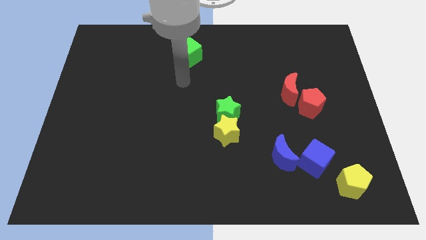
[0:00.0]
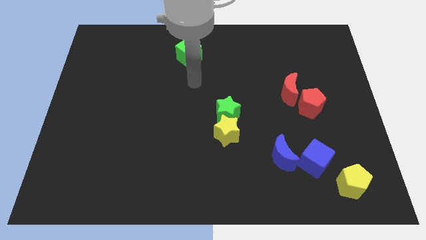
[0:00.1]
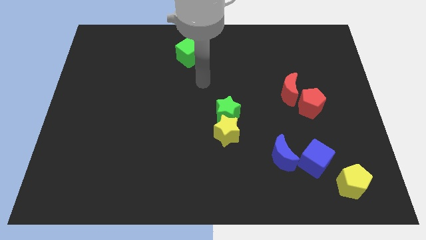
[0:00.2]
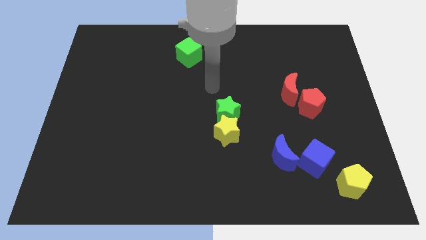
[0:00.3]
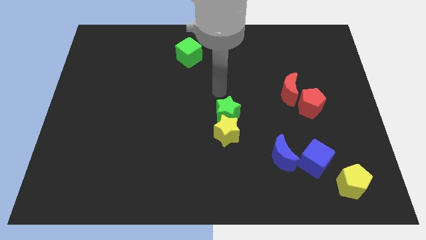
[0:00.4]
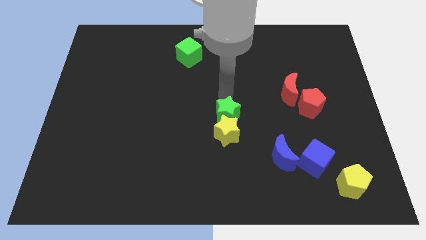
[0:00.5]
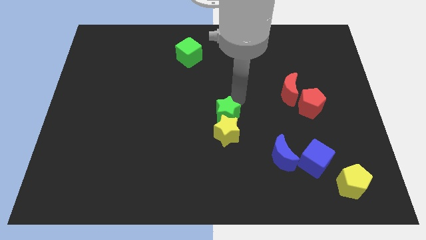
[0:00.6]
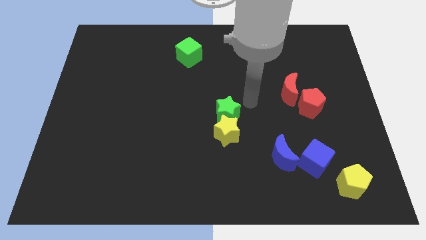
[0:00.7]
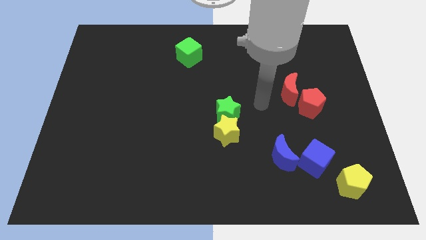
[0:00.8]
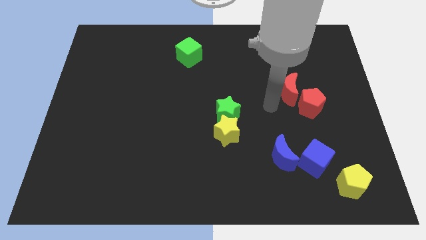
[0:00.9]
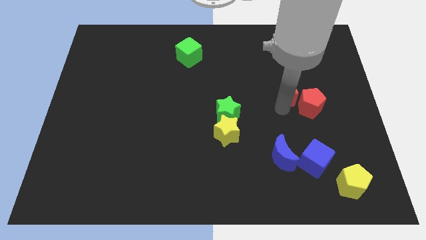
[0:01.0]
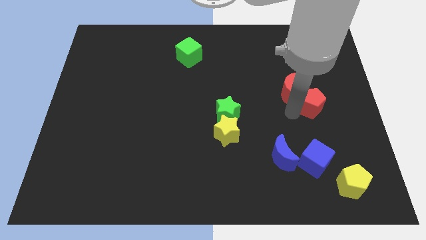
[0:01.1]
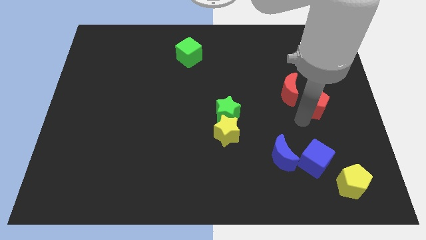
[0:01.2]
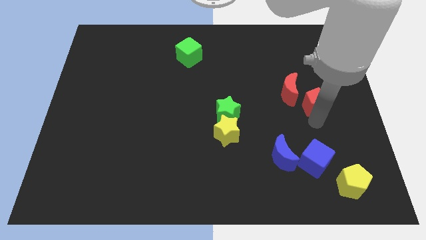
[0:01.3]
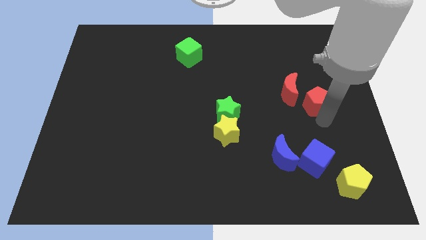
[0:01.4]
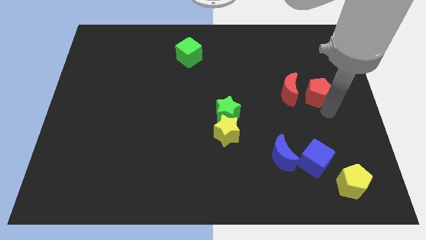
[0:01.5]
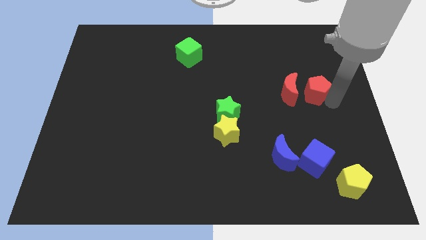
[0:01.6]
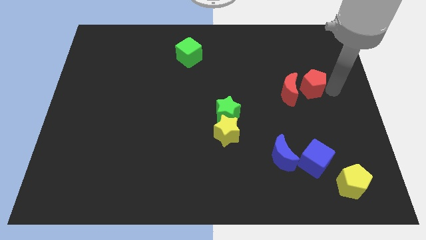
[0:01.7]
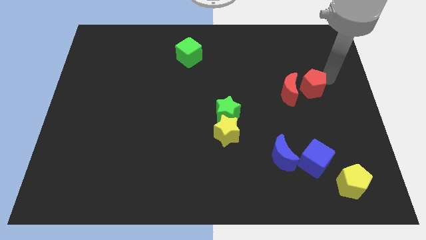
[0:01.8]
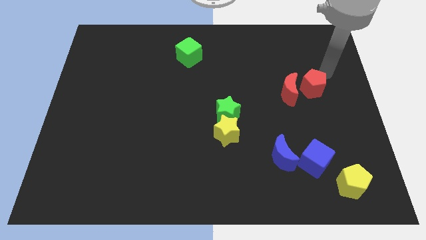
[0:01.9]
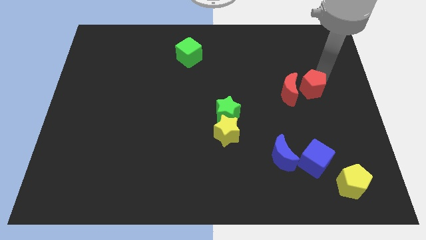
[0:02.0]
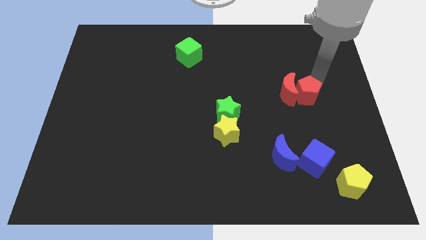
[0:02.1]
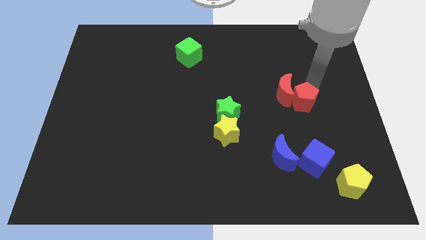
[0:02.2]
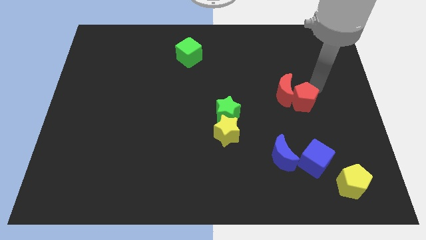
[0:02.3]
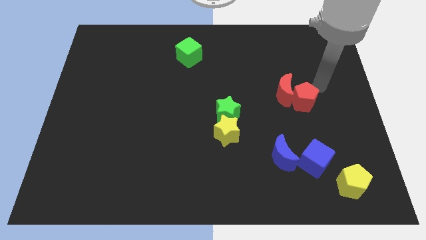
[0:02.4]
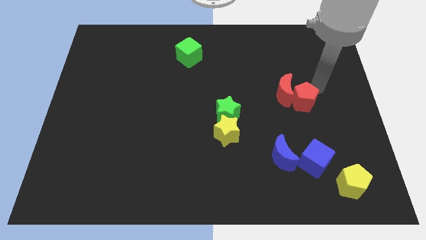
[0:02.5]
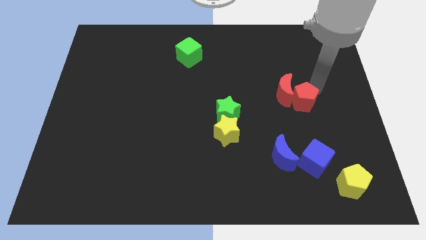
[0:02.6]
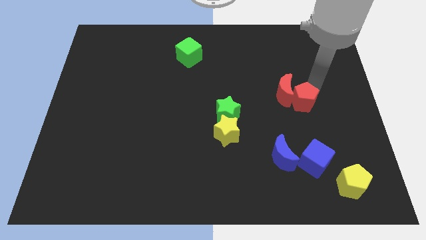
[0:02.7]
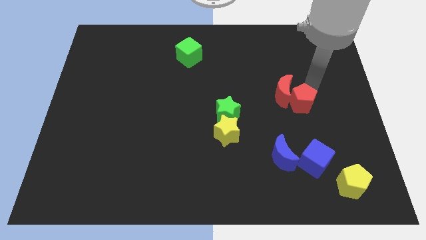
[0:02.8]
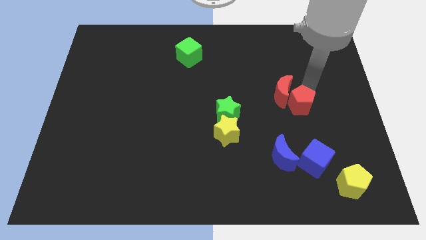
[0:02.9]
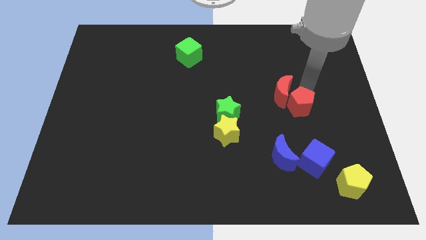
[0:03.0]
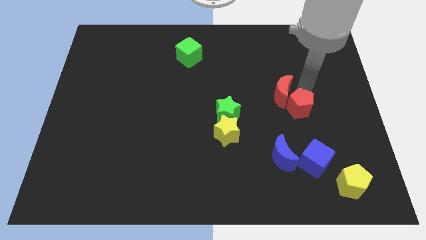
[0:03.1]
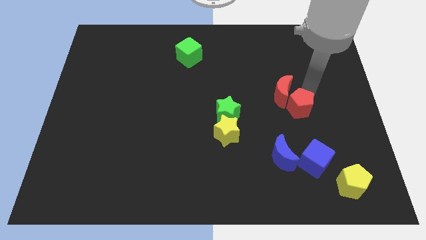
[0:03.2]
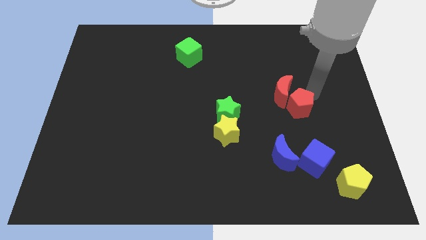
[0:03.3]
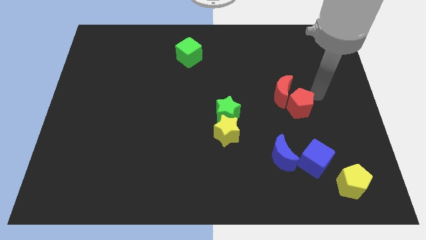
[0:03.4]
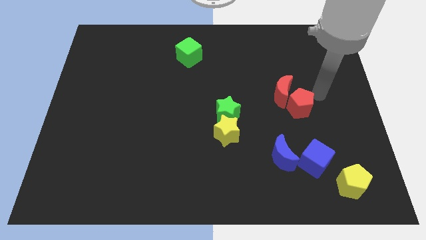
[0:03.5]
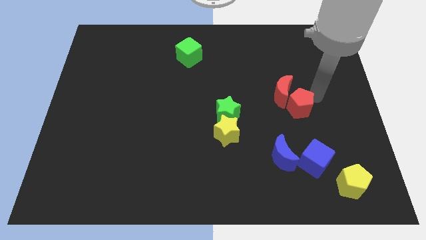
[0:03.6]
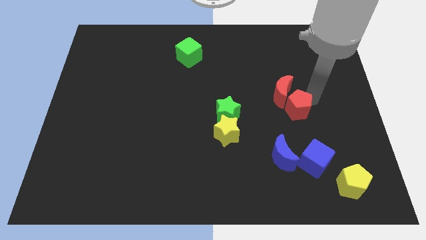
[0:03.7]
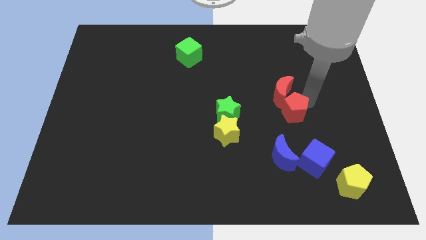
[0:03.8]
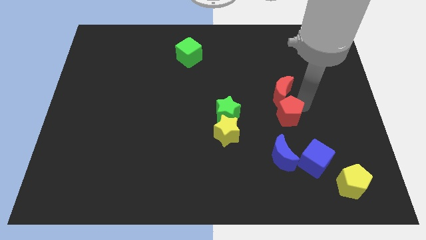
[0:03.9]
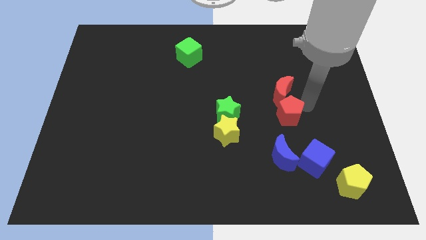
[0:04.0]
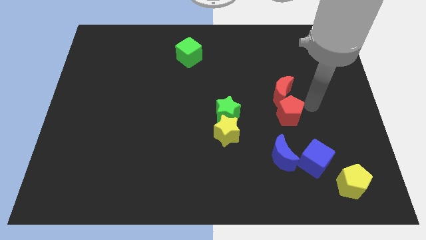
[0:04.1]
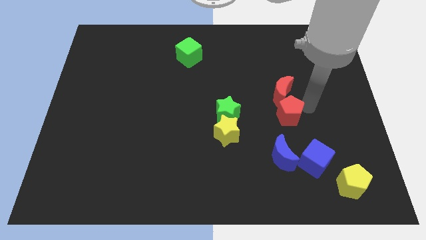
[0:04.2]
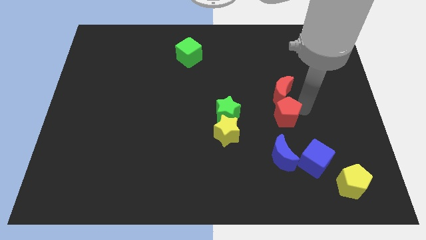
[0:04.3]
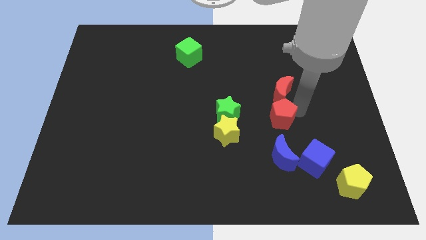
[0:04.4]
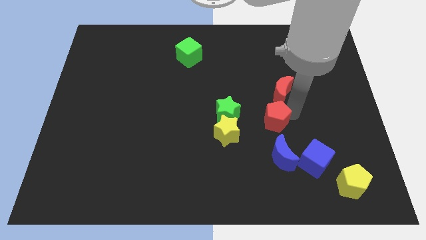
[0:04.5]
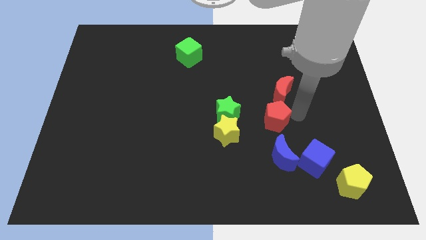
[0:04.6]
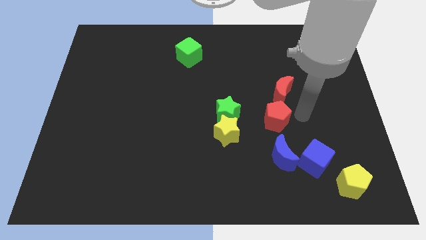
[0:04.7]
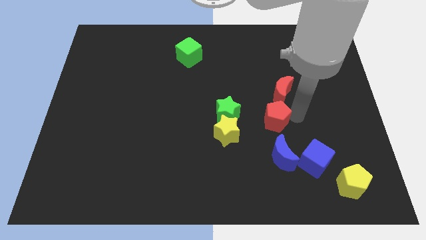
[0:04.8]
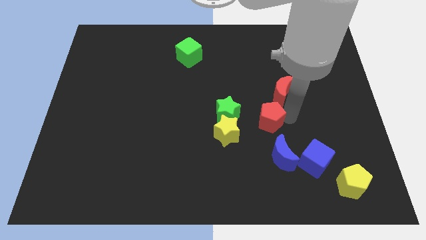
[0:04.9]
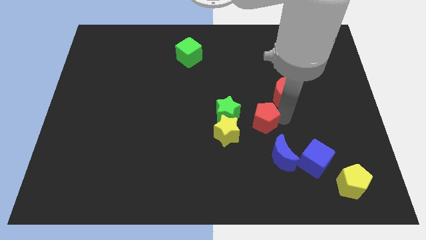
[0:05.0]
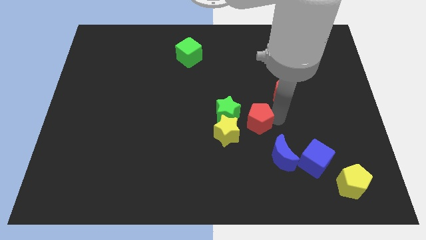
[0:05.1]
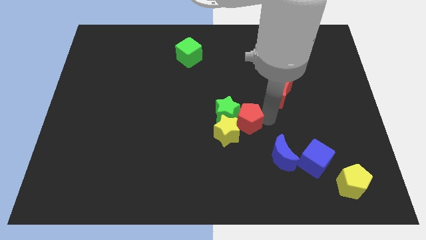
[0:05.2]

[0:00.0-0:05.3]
move the red pentagon close to the yellow star

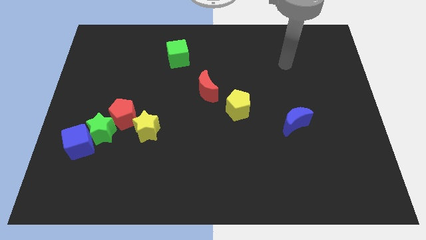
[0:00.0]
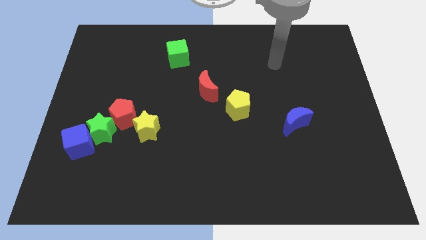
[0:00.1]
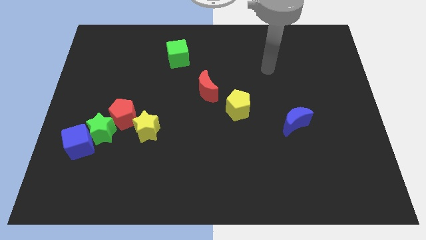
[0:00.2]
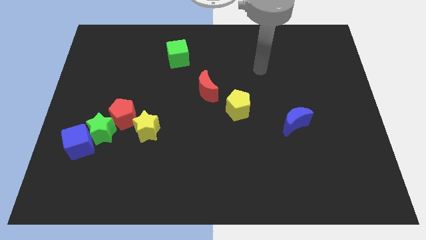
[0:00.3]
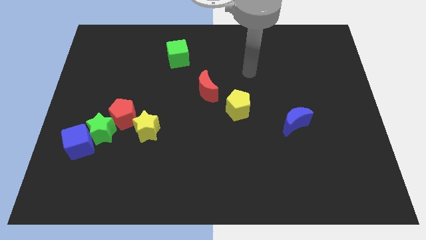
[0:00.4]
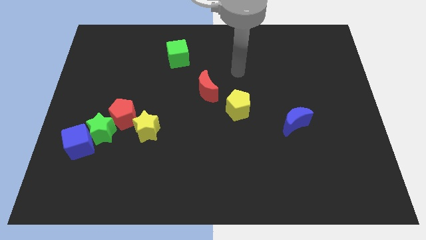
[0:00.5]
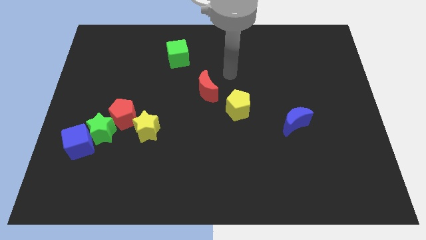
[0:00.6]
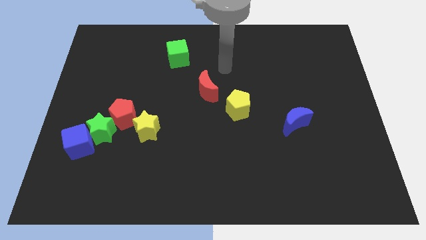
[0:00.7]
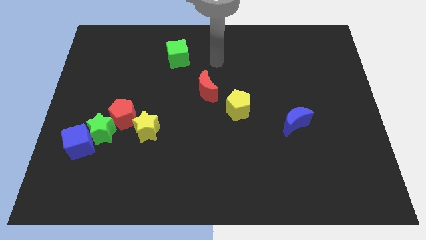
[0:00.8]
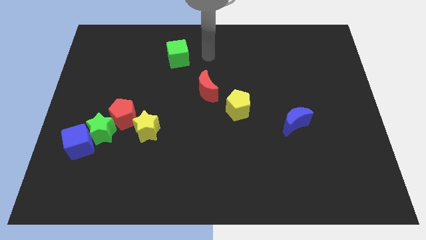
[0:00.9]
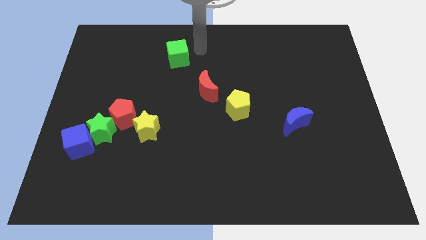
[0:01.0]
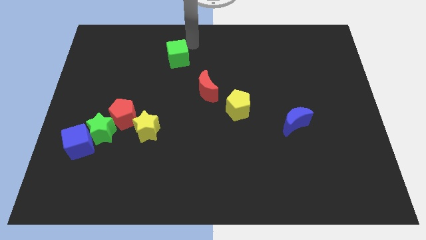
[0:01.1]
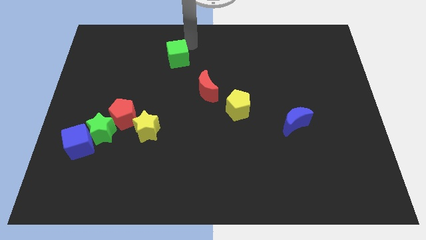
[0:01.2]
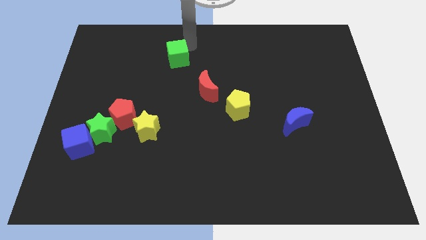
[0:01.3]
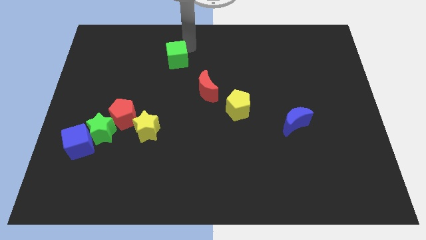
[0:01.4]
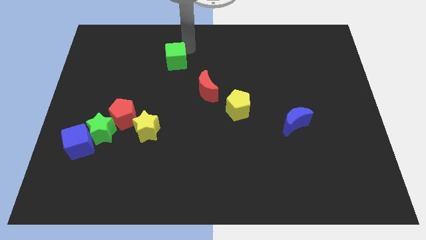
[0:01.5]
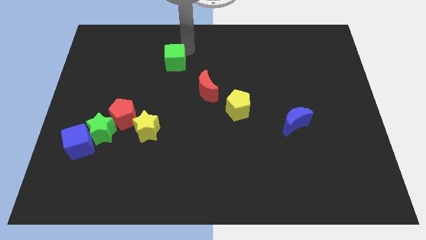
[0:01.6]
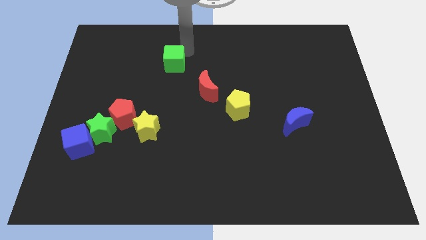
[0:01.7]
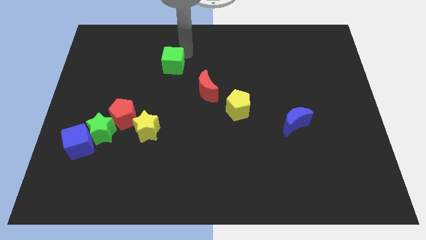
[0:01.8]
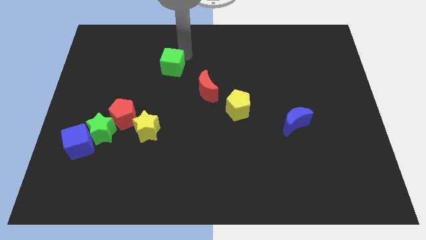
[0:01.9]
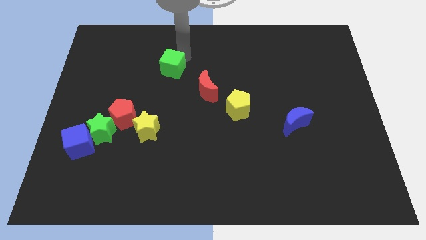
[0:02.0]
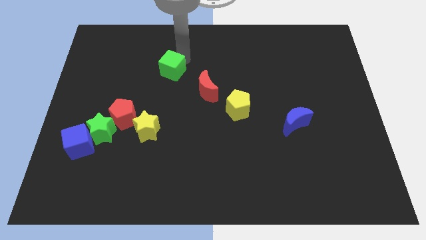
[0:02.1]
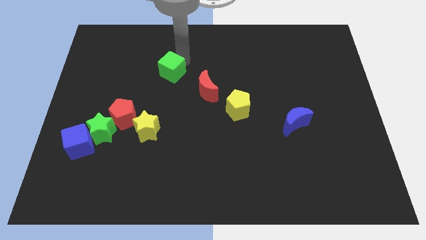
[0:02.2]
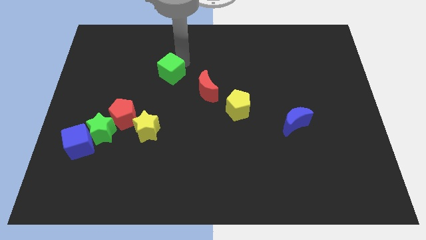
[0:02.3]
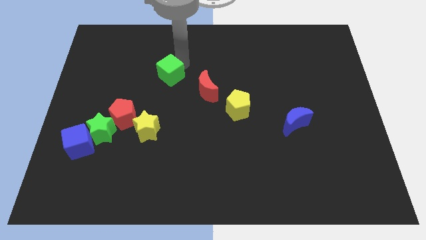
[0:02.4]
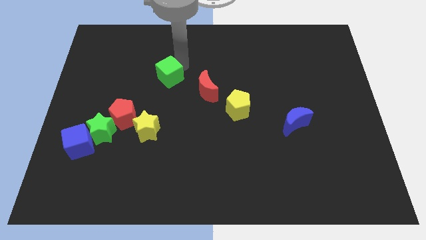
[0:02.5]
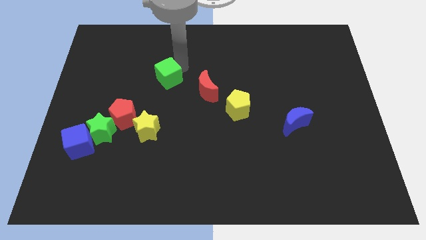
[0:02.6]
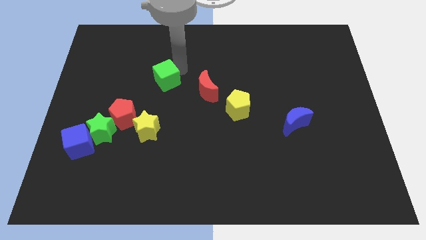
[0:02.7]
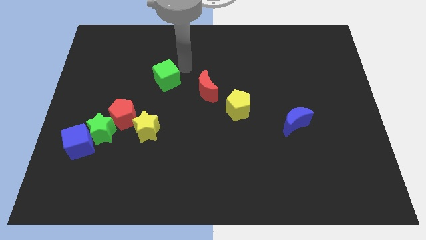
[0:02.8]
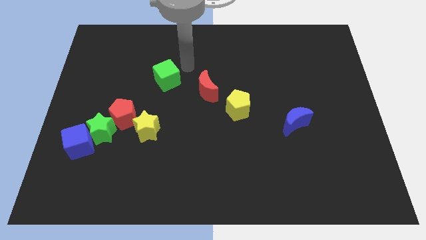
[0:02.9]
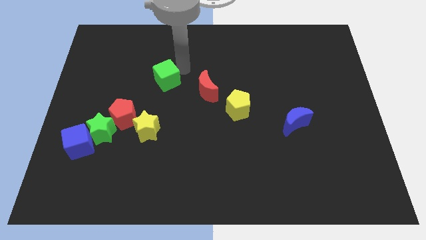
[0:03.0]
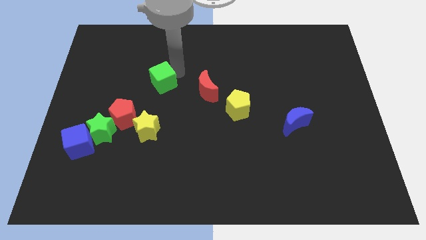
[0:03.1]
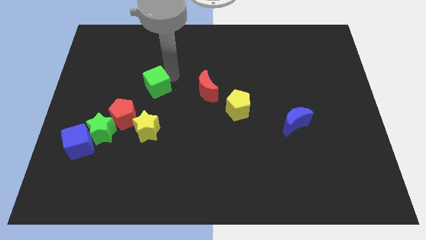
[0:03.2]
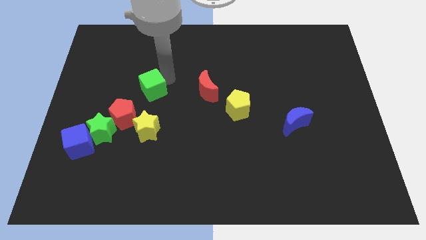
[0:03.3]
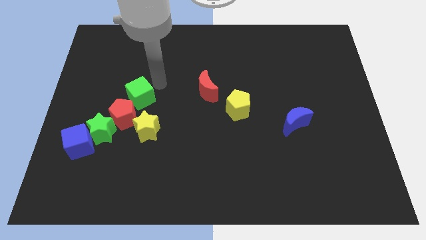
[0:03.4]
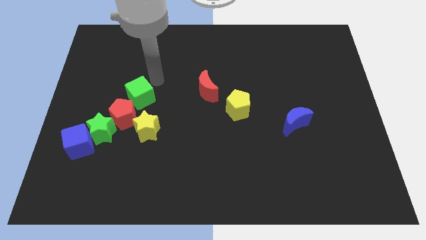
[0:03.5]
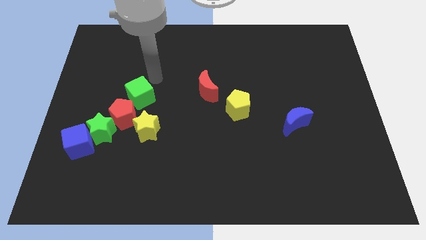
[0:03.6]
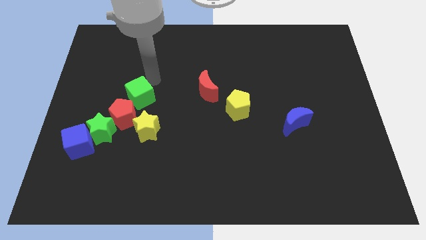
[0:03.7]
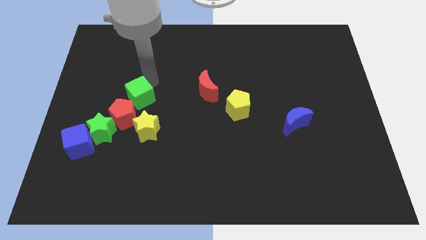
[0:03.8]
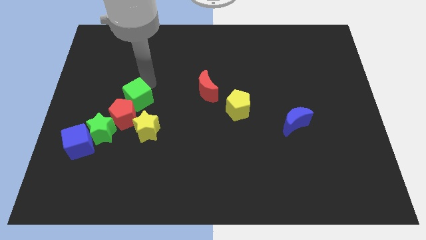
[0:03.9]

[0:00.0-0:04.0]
push the green cube close to the red pentagon
